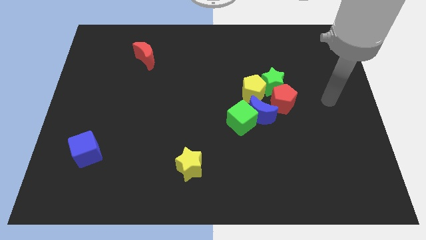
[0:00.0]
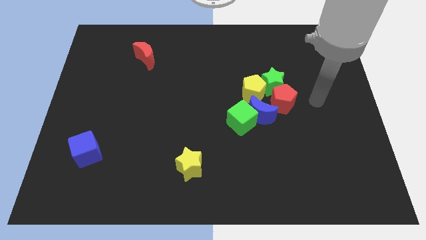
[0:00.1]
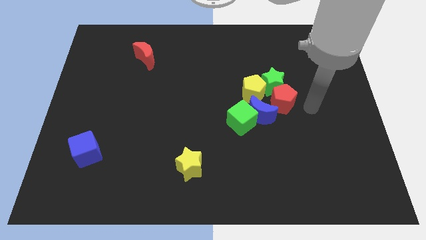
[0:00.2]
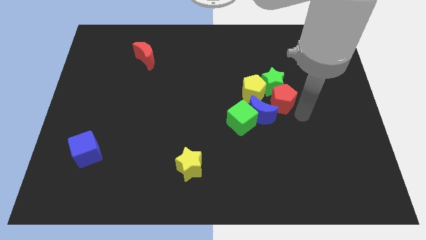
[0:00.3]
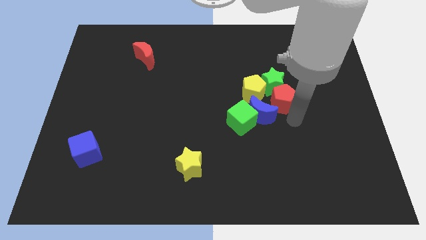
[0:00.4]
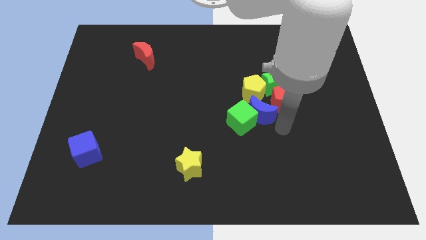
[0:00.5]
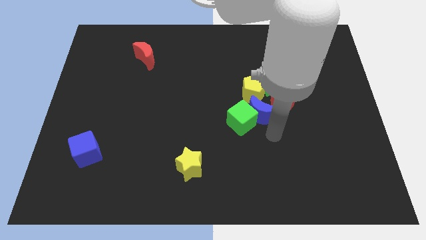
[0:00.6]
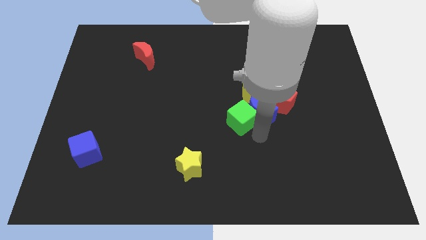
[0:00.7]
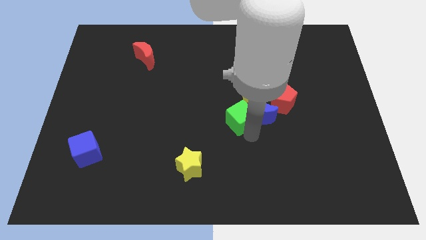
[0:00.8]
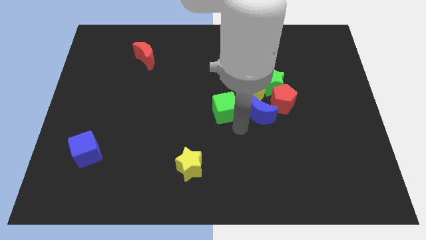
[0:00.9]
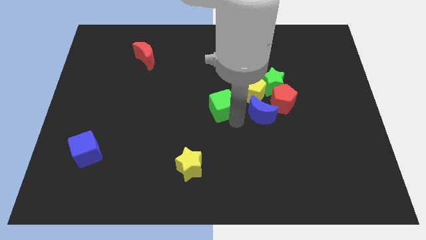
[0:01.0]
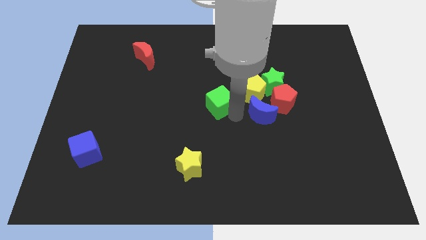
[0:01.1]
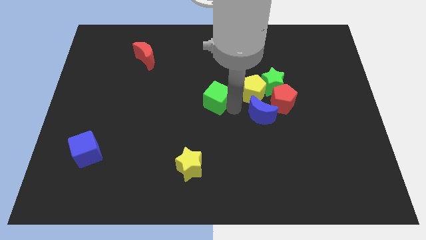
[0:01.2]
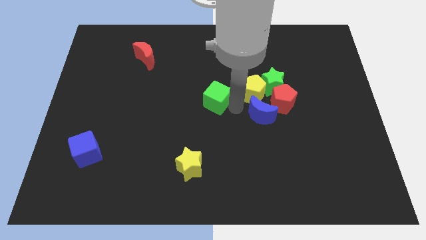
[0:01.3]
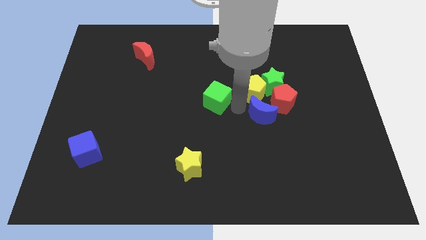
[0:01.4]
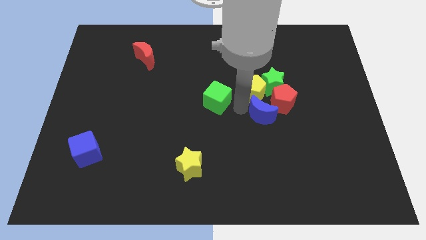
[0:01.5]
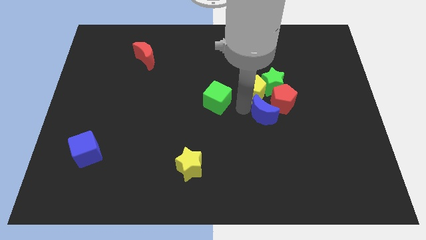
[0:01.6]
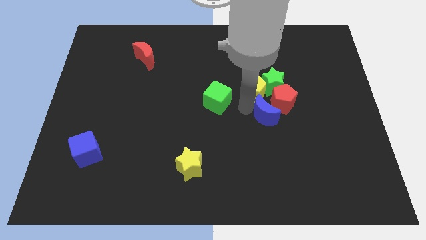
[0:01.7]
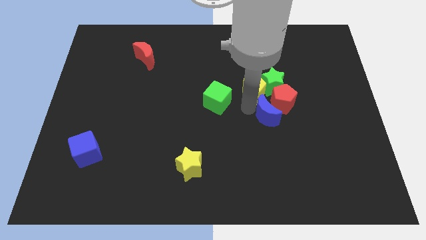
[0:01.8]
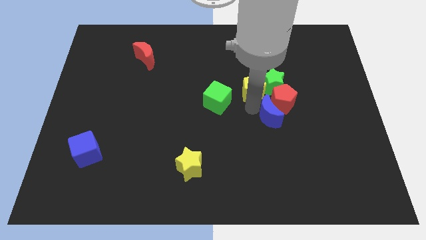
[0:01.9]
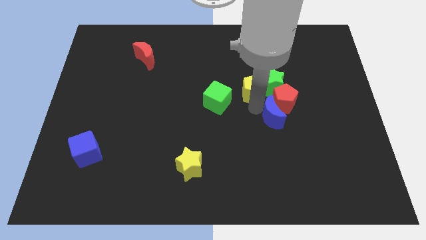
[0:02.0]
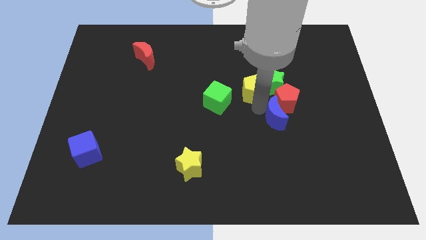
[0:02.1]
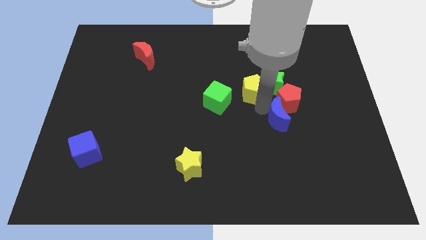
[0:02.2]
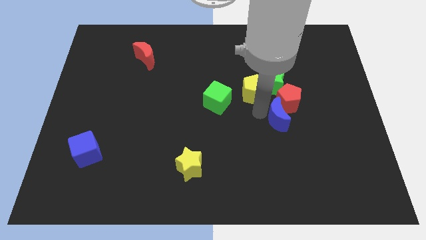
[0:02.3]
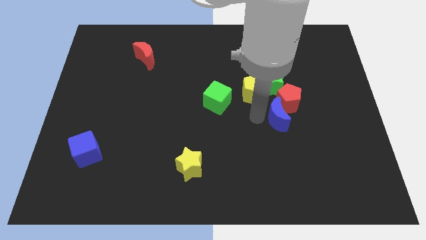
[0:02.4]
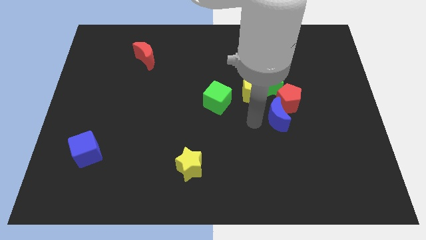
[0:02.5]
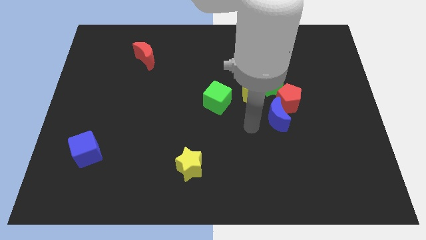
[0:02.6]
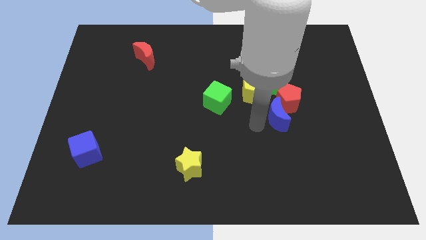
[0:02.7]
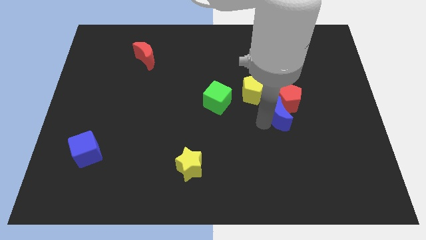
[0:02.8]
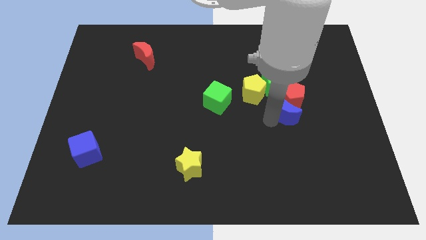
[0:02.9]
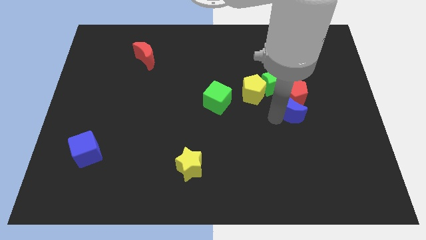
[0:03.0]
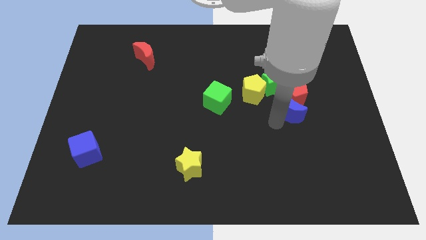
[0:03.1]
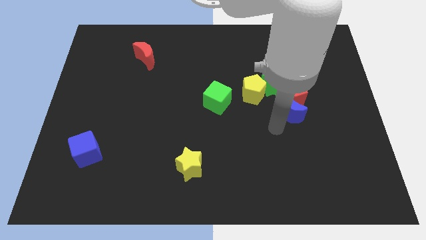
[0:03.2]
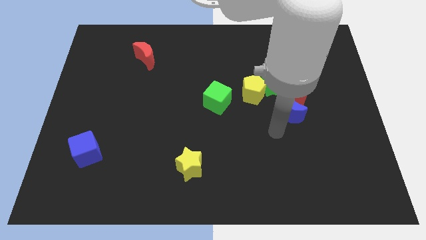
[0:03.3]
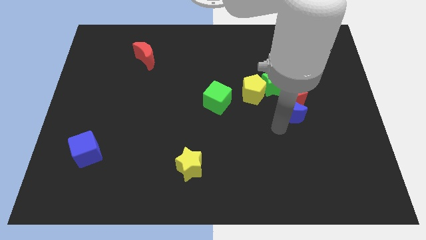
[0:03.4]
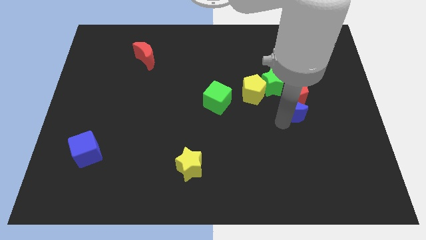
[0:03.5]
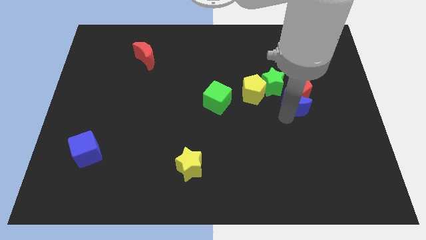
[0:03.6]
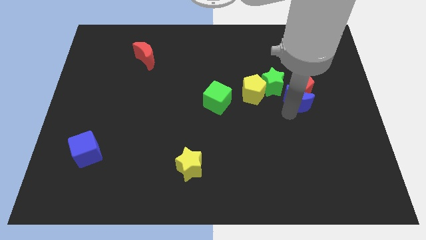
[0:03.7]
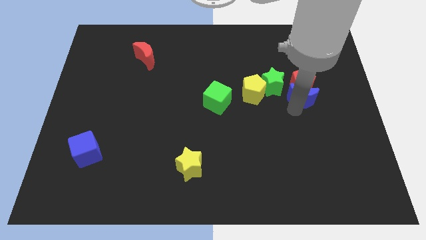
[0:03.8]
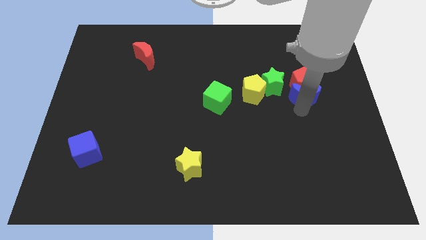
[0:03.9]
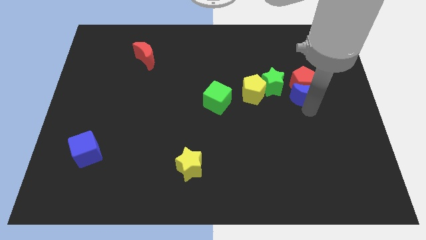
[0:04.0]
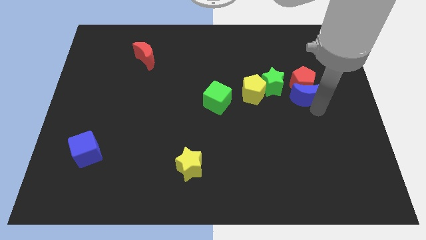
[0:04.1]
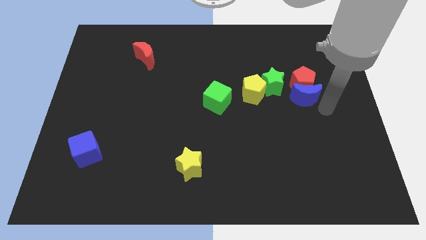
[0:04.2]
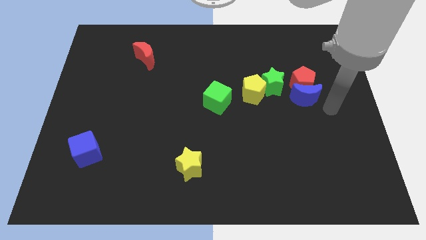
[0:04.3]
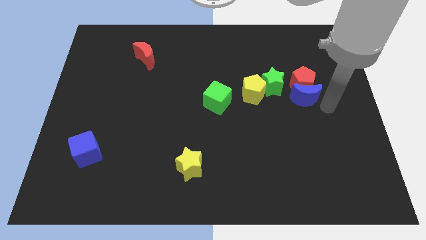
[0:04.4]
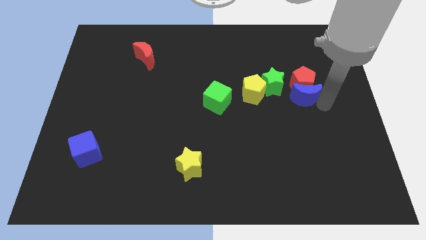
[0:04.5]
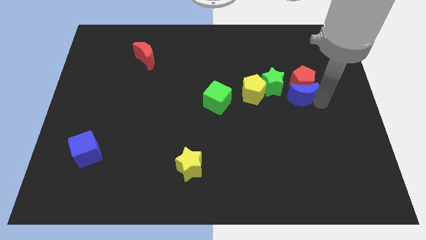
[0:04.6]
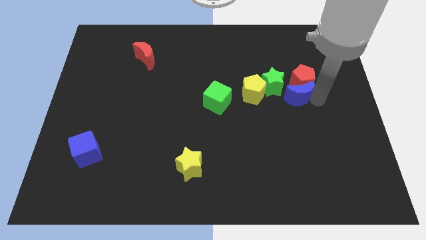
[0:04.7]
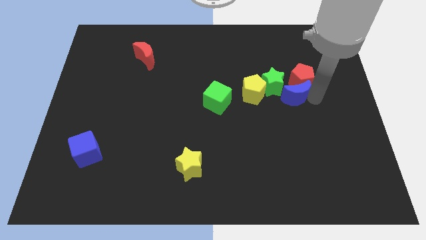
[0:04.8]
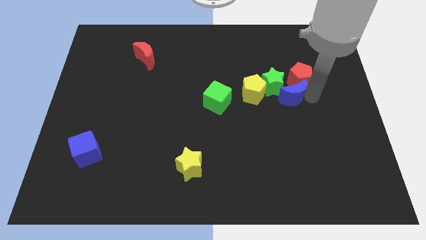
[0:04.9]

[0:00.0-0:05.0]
put the blue moon to the green star

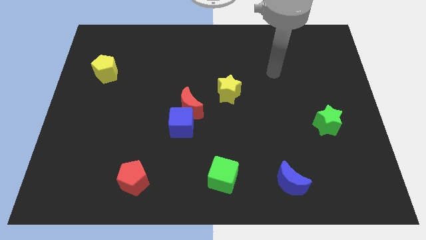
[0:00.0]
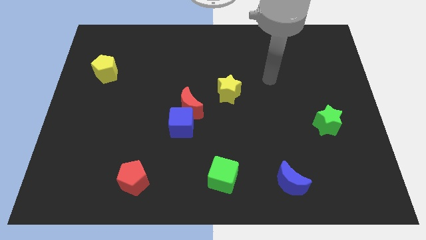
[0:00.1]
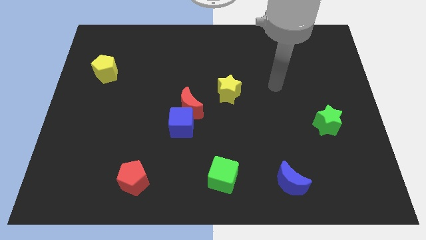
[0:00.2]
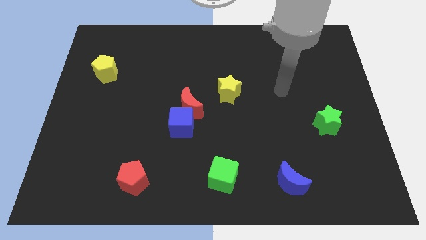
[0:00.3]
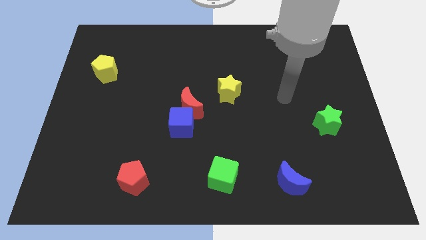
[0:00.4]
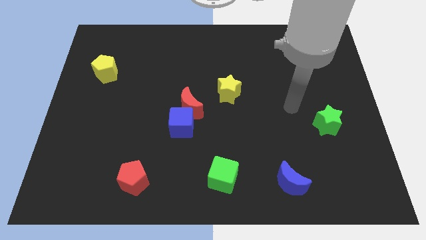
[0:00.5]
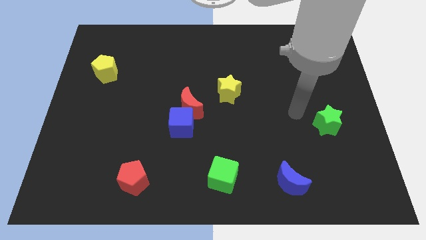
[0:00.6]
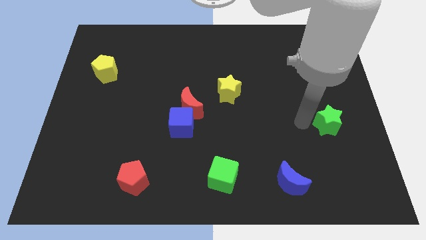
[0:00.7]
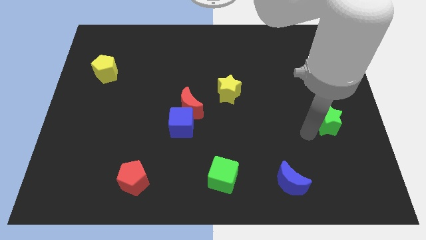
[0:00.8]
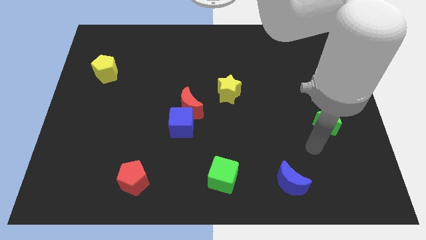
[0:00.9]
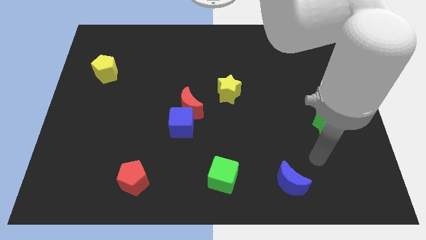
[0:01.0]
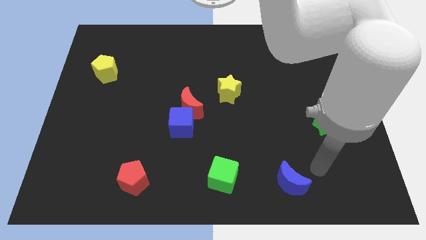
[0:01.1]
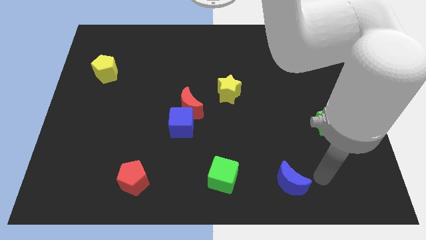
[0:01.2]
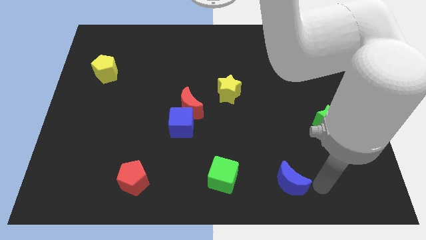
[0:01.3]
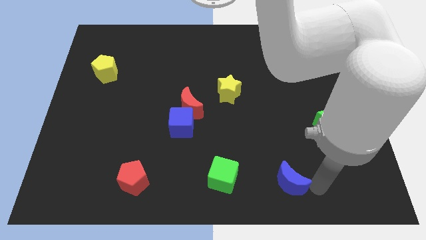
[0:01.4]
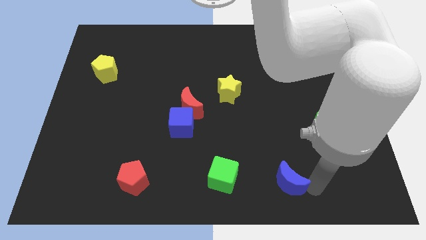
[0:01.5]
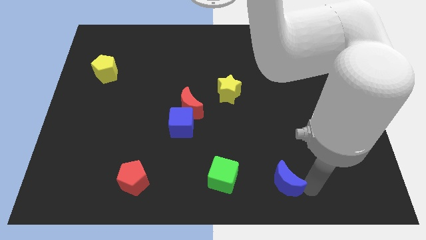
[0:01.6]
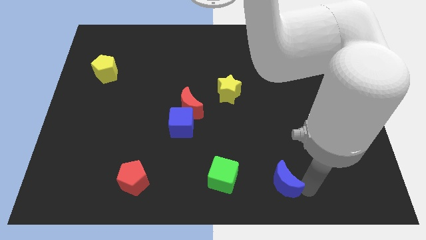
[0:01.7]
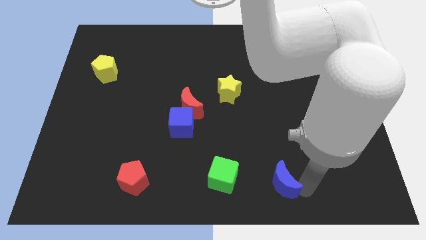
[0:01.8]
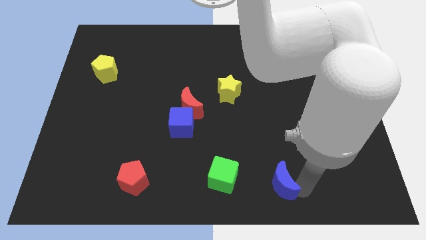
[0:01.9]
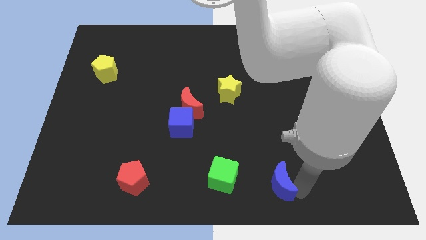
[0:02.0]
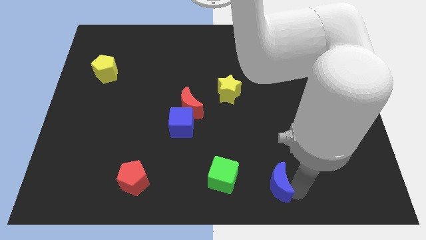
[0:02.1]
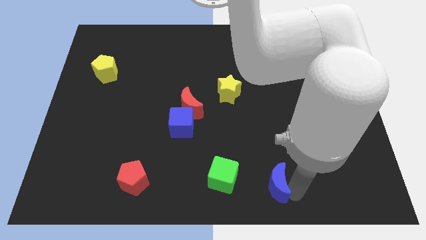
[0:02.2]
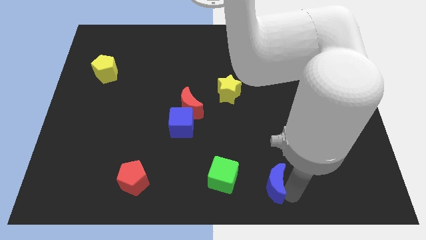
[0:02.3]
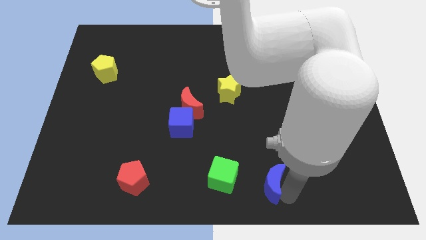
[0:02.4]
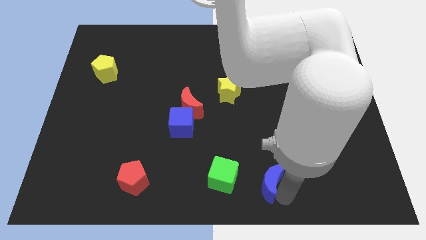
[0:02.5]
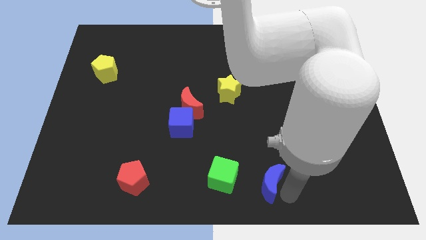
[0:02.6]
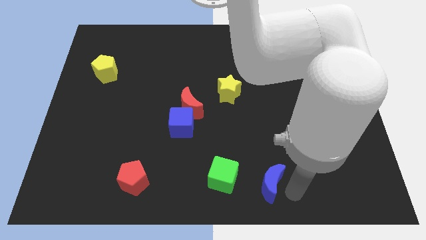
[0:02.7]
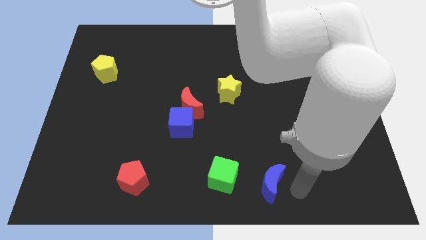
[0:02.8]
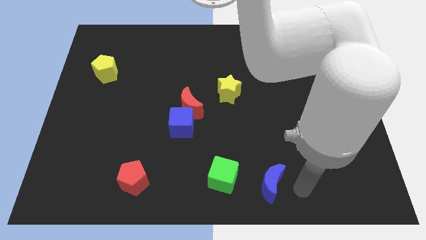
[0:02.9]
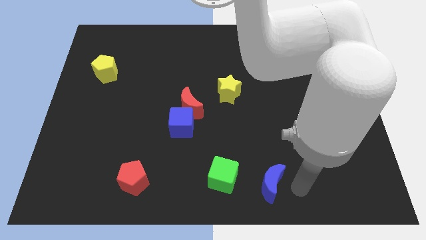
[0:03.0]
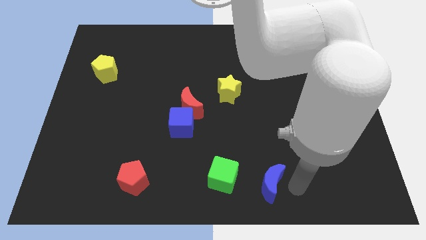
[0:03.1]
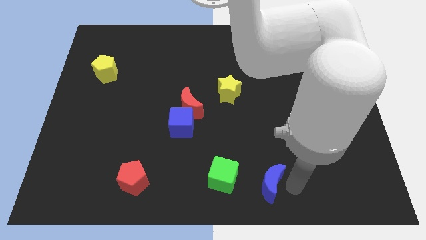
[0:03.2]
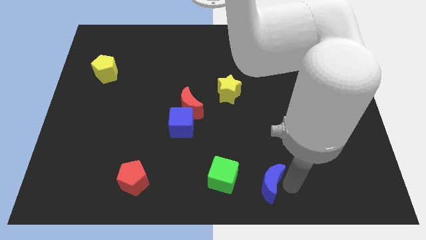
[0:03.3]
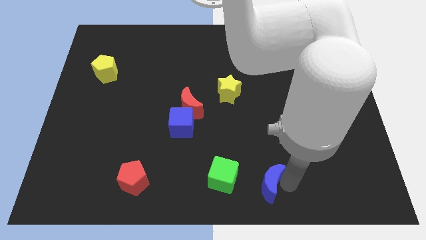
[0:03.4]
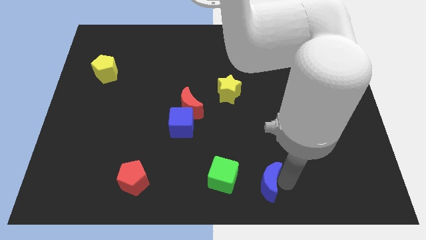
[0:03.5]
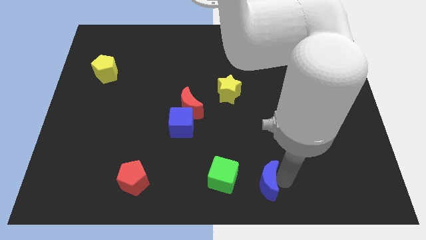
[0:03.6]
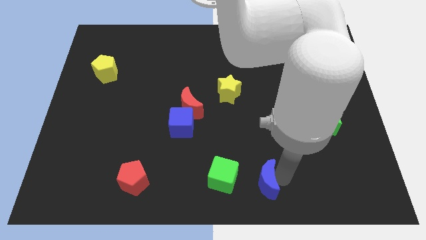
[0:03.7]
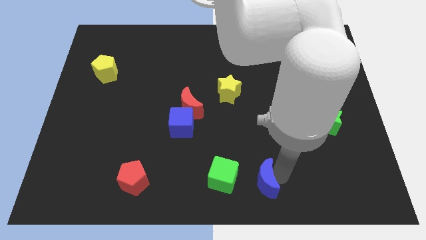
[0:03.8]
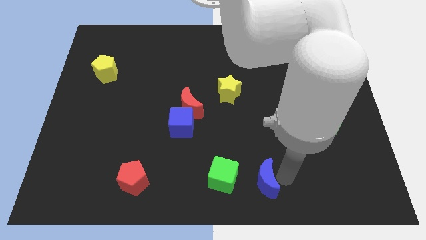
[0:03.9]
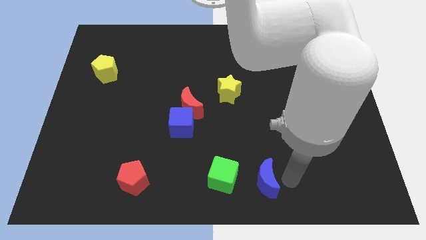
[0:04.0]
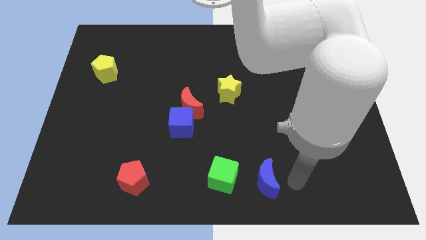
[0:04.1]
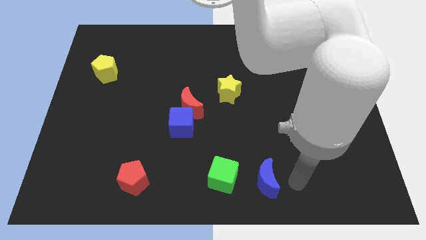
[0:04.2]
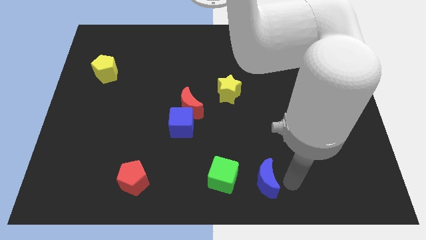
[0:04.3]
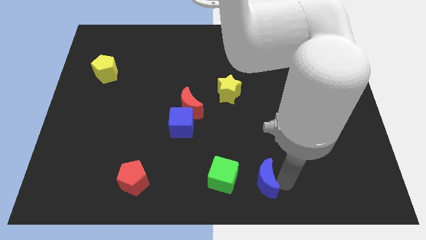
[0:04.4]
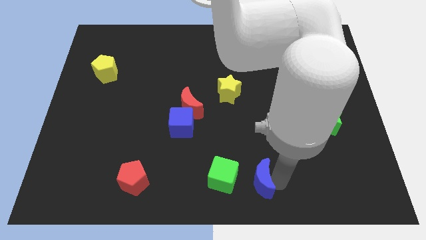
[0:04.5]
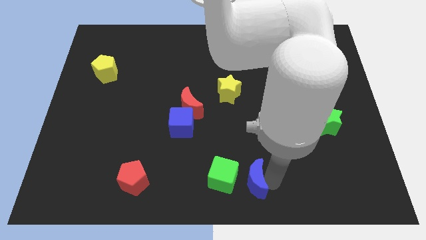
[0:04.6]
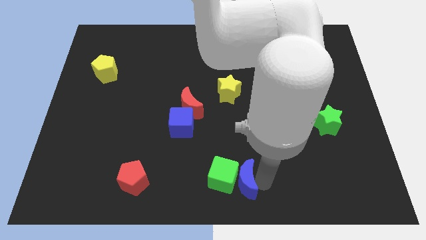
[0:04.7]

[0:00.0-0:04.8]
slide the blue moon close to the green cube
